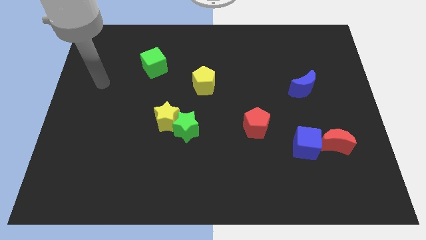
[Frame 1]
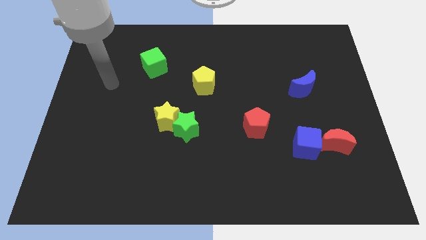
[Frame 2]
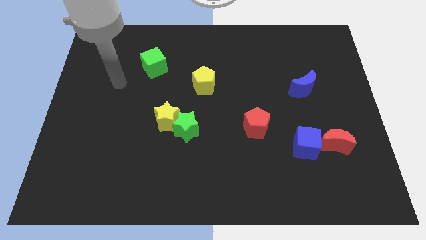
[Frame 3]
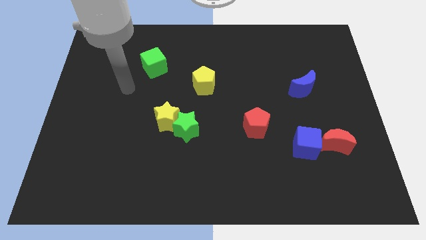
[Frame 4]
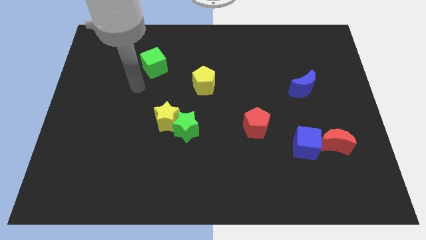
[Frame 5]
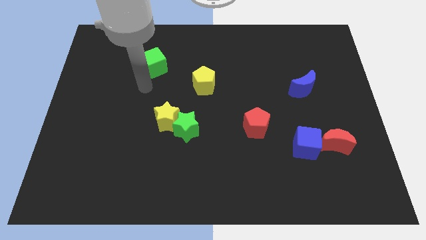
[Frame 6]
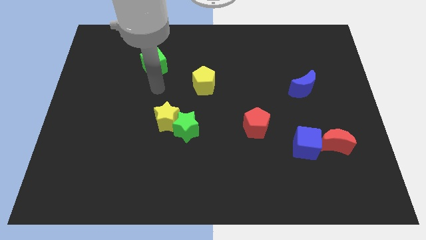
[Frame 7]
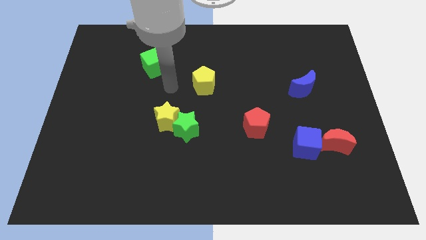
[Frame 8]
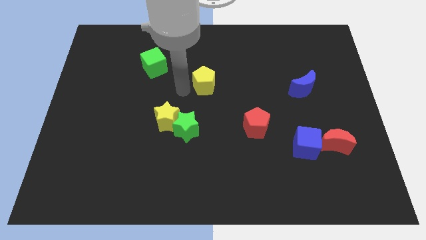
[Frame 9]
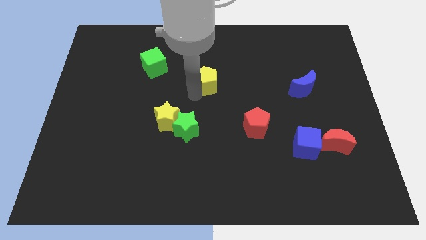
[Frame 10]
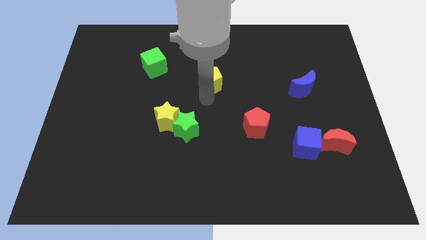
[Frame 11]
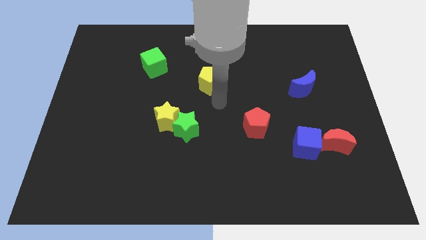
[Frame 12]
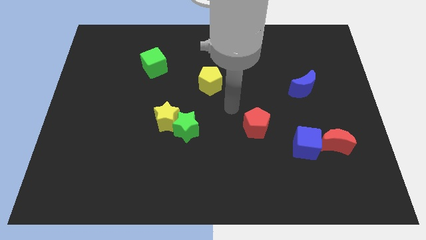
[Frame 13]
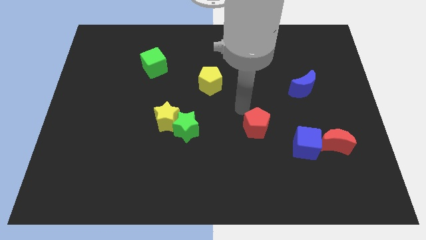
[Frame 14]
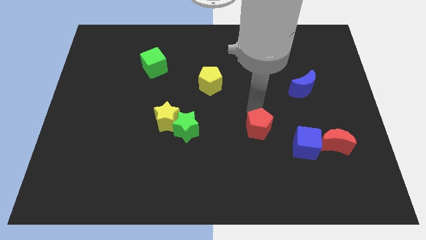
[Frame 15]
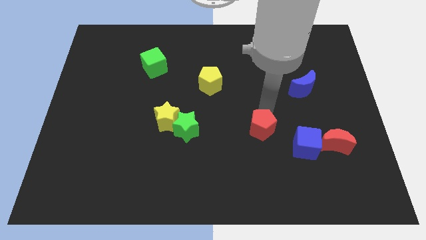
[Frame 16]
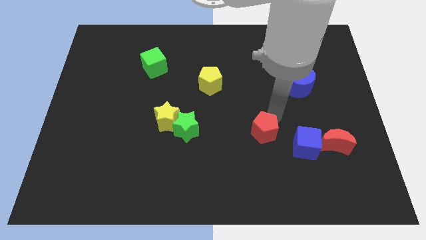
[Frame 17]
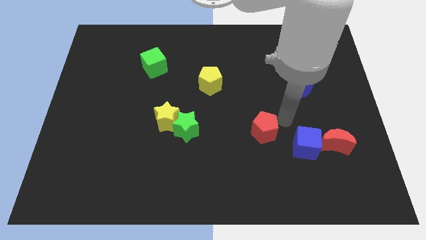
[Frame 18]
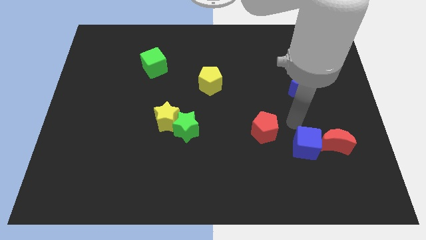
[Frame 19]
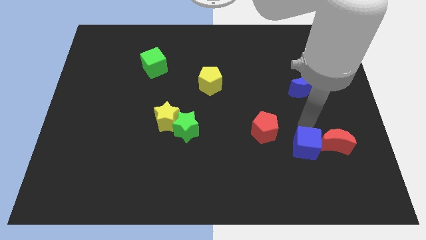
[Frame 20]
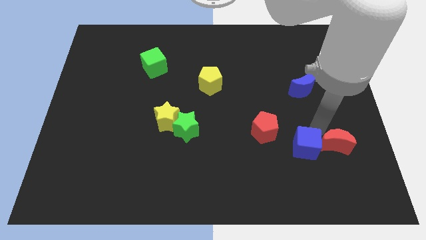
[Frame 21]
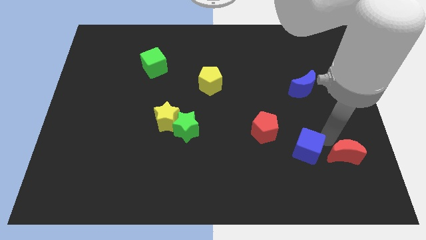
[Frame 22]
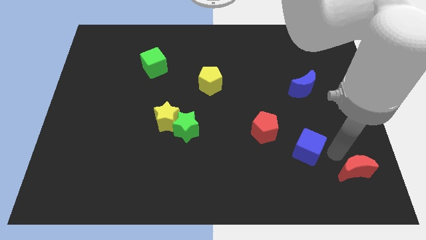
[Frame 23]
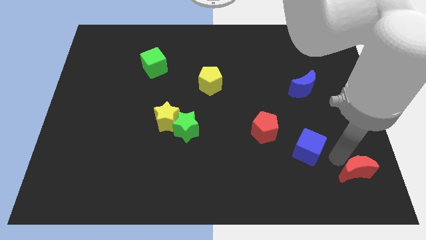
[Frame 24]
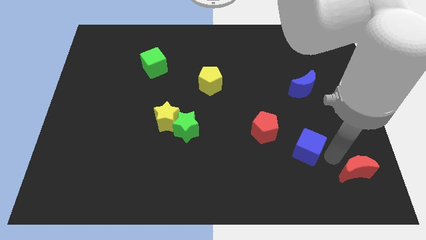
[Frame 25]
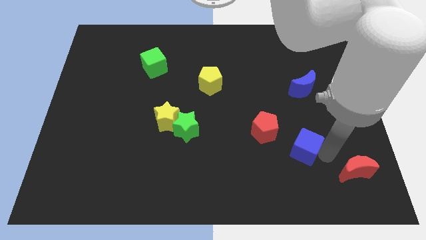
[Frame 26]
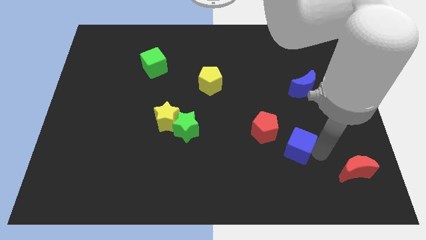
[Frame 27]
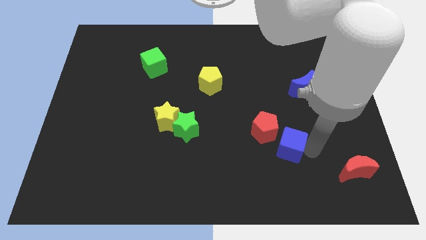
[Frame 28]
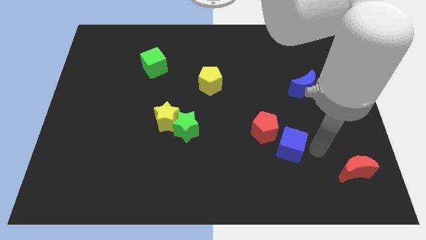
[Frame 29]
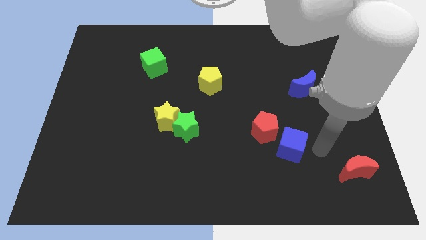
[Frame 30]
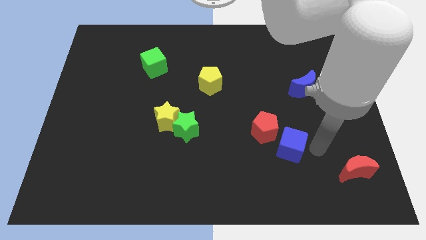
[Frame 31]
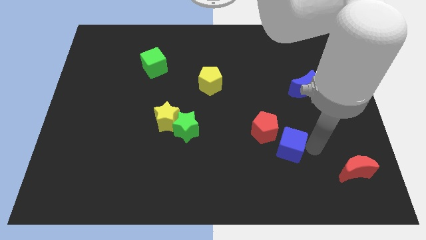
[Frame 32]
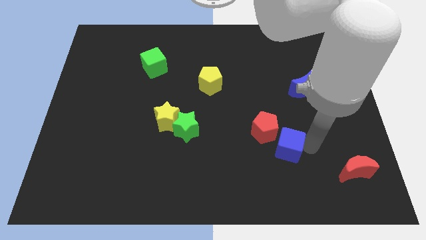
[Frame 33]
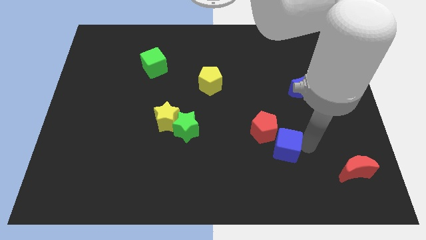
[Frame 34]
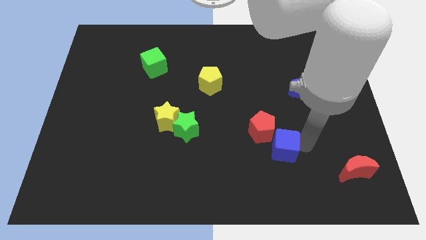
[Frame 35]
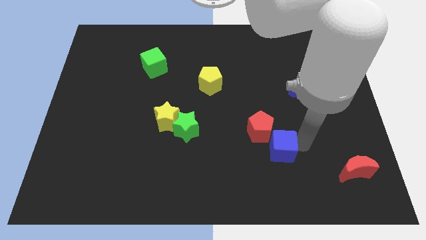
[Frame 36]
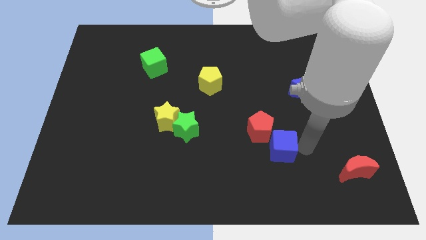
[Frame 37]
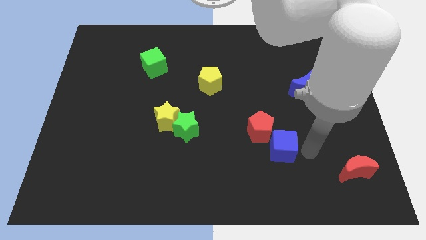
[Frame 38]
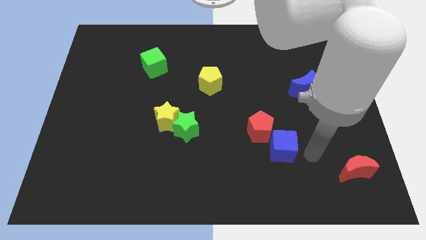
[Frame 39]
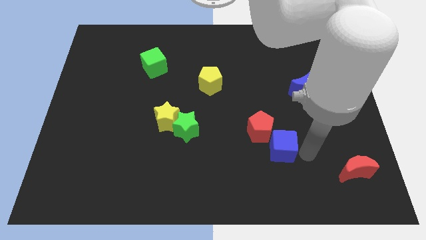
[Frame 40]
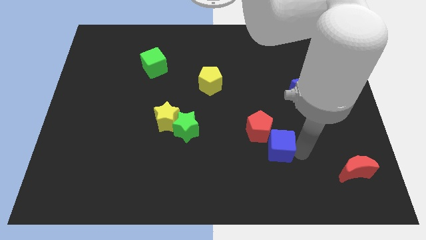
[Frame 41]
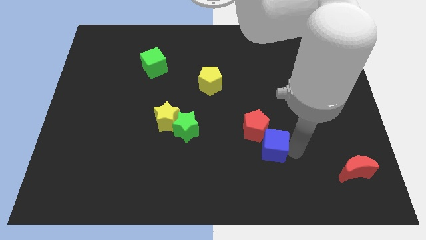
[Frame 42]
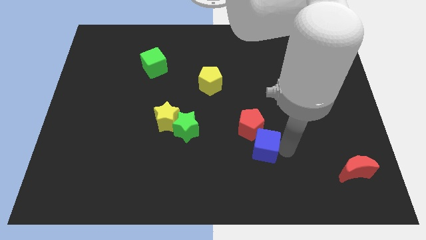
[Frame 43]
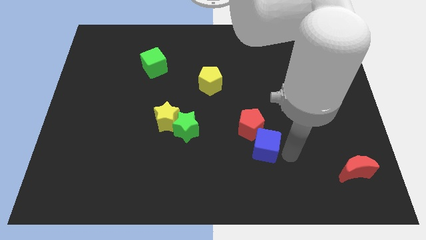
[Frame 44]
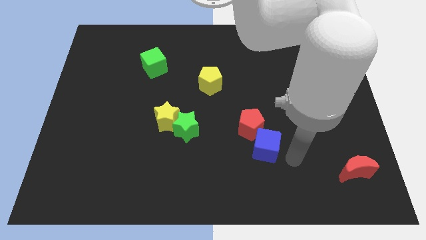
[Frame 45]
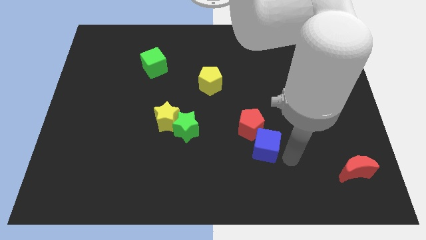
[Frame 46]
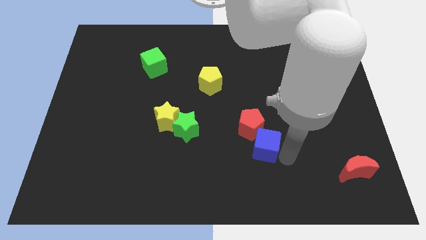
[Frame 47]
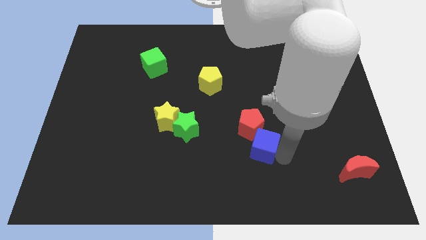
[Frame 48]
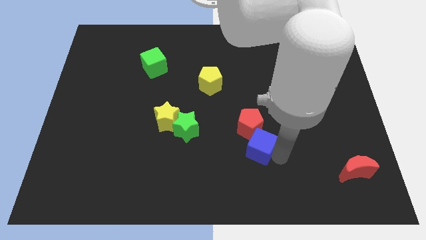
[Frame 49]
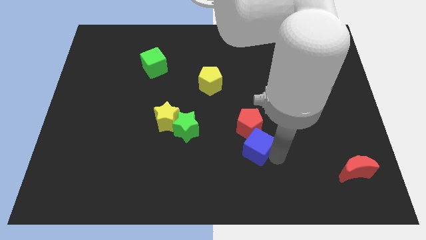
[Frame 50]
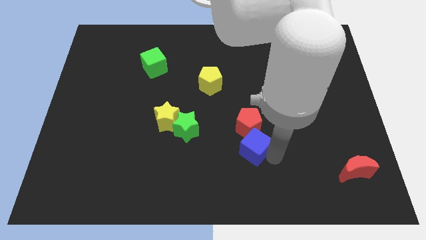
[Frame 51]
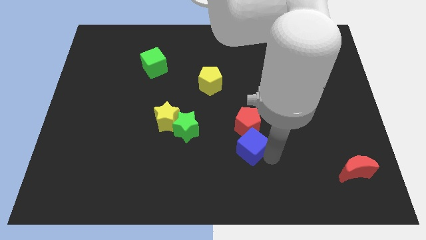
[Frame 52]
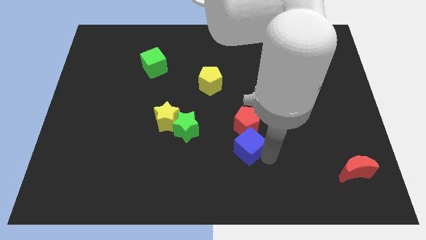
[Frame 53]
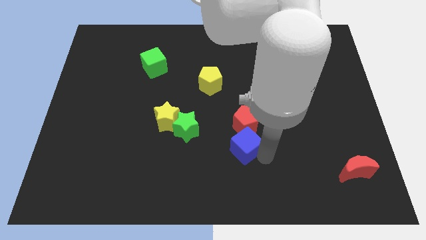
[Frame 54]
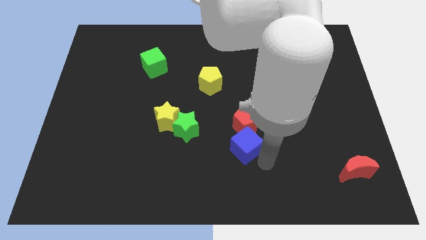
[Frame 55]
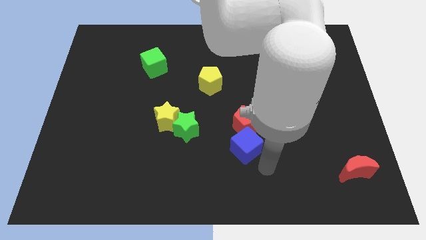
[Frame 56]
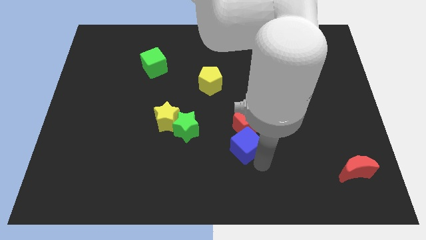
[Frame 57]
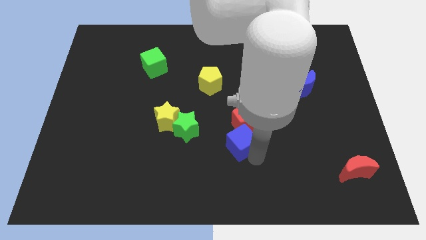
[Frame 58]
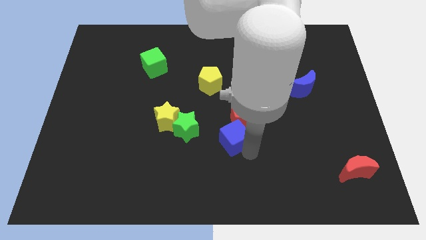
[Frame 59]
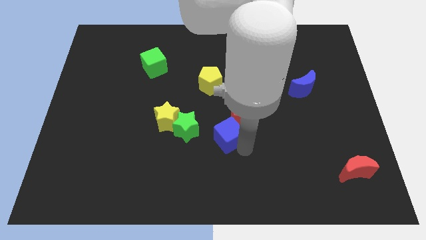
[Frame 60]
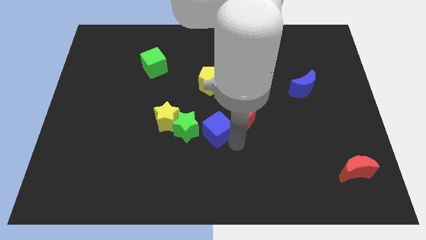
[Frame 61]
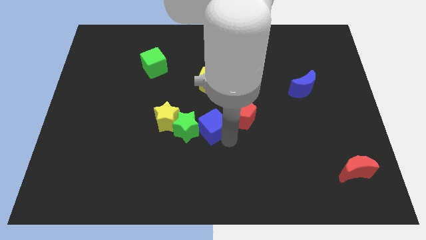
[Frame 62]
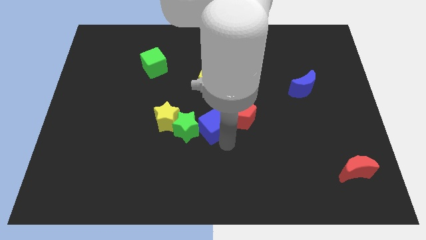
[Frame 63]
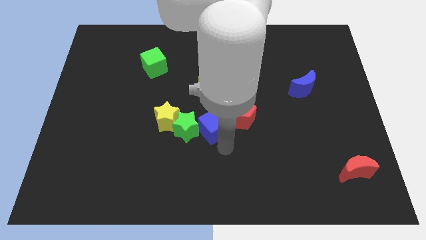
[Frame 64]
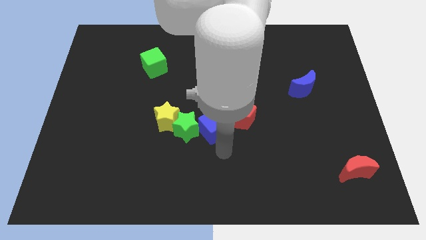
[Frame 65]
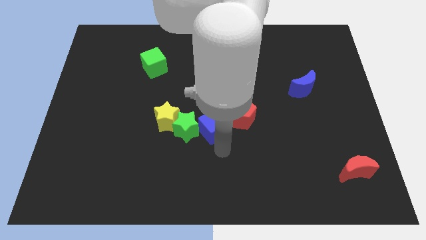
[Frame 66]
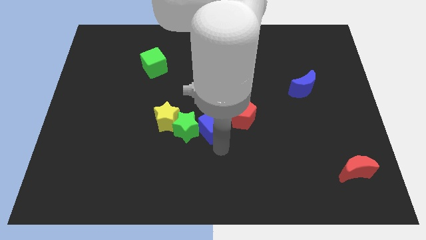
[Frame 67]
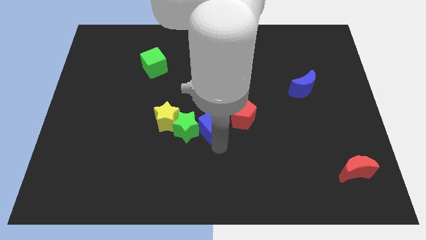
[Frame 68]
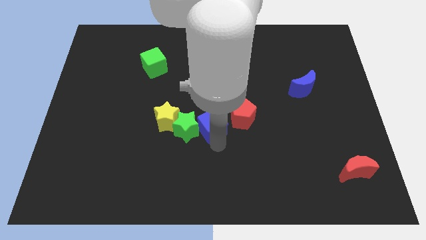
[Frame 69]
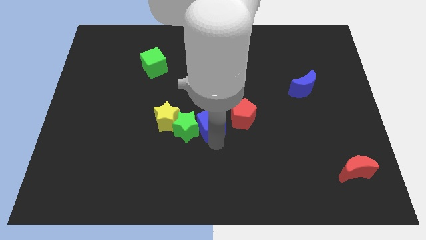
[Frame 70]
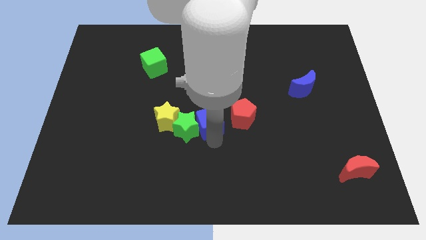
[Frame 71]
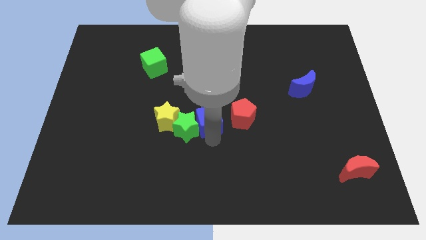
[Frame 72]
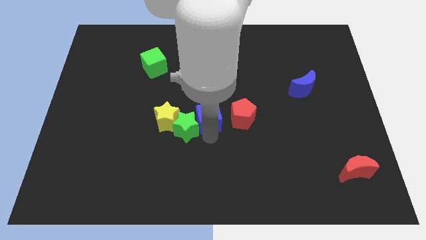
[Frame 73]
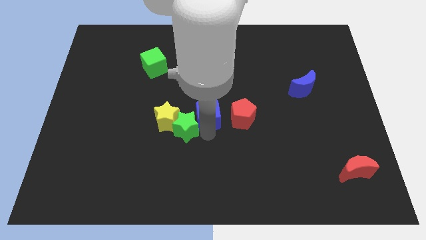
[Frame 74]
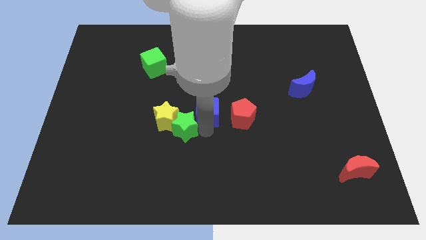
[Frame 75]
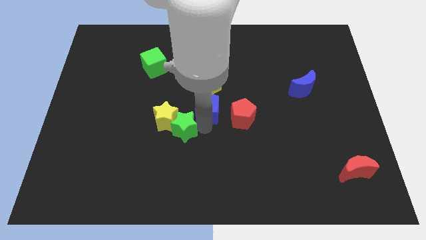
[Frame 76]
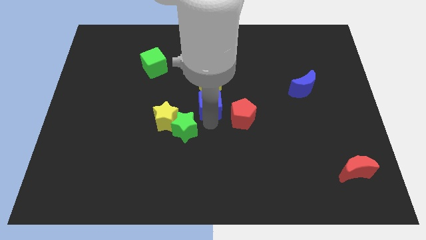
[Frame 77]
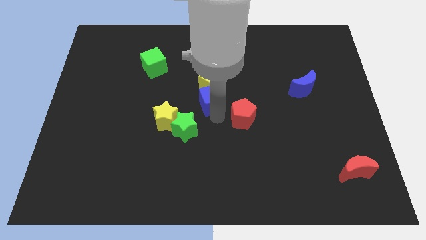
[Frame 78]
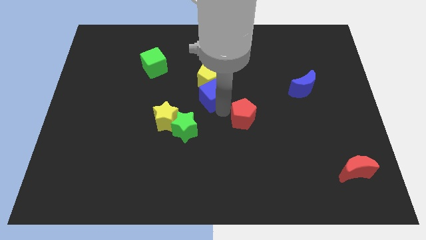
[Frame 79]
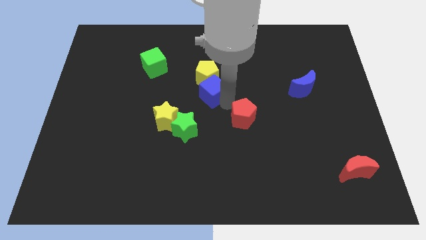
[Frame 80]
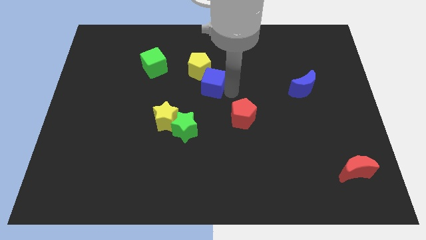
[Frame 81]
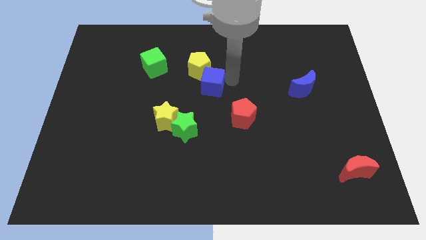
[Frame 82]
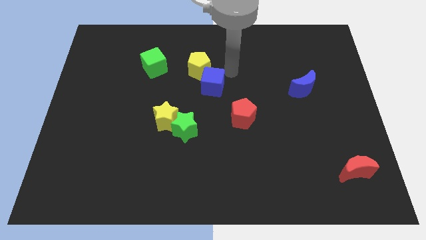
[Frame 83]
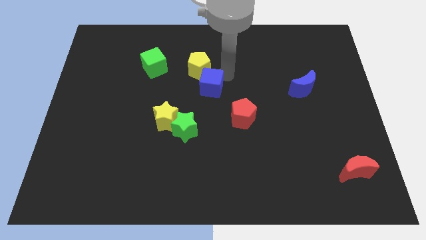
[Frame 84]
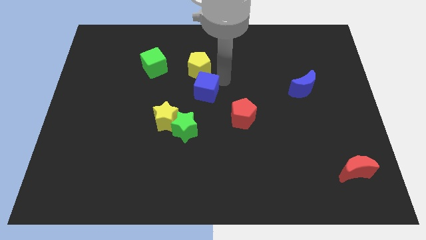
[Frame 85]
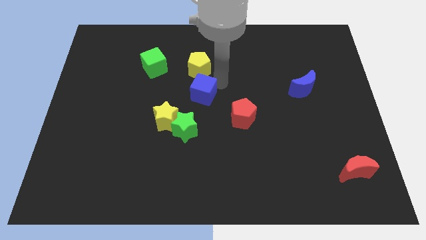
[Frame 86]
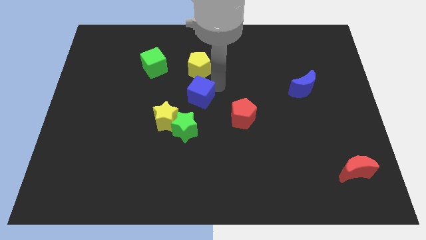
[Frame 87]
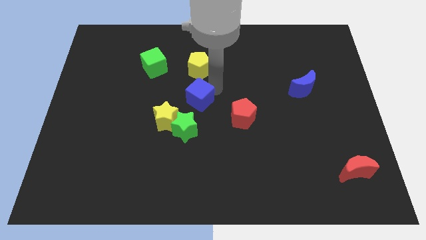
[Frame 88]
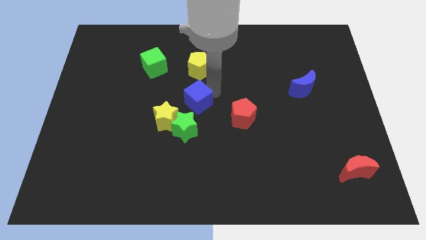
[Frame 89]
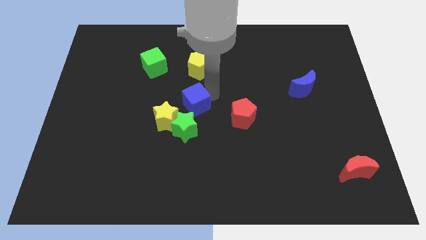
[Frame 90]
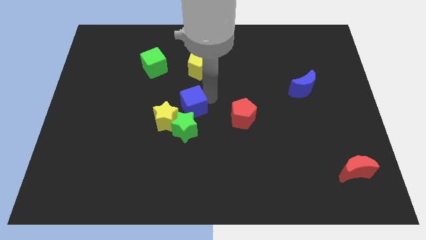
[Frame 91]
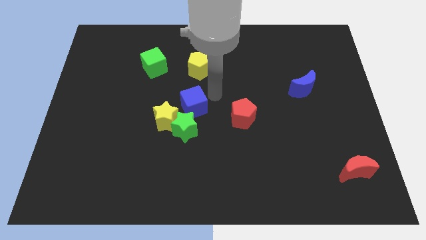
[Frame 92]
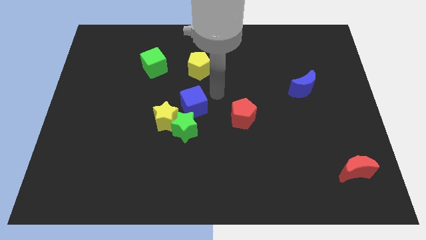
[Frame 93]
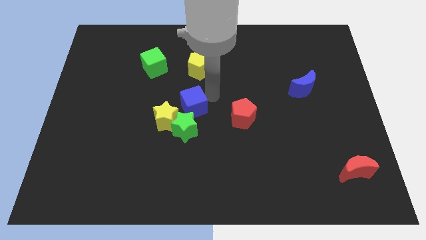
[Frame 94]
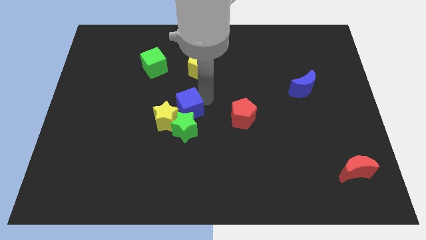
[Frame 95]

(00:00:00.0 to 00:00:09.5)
push the blue cube close to the yellow star
